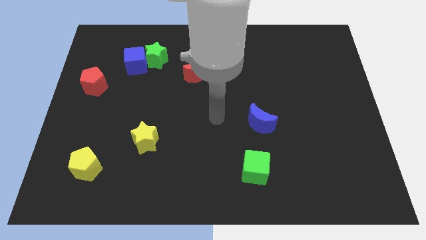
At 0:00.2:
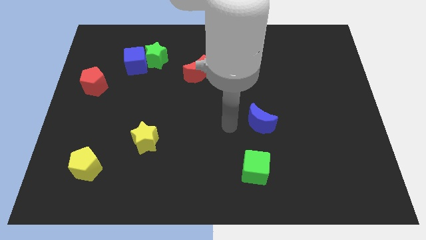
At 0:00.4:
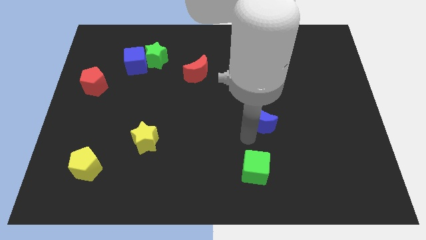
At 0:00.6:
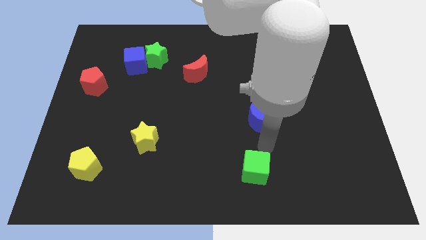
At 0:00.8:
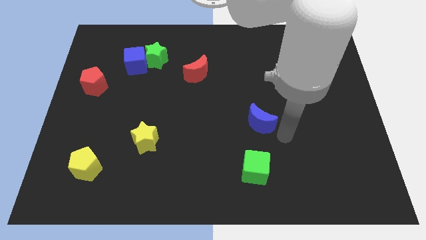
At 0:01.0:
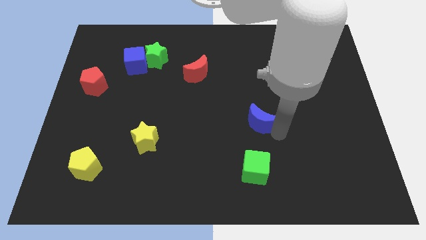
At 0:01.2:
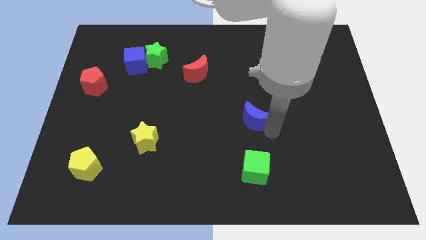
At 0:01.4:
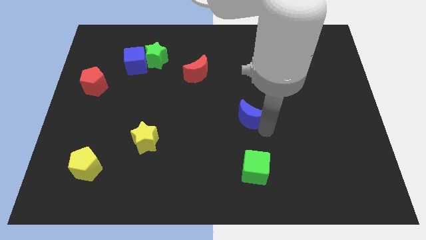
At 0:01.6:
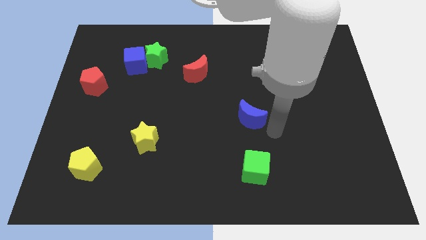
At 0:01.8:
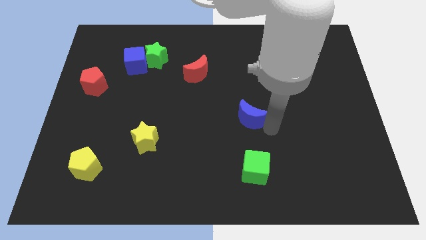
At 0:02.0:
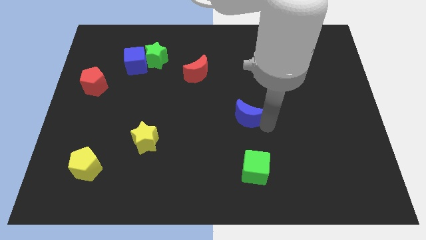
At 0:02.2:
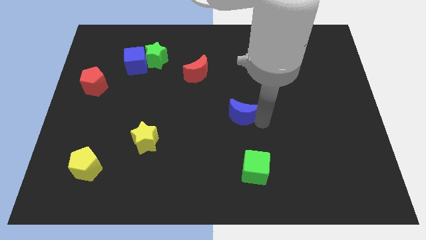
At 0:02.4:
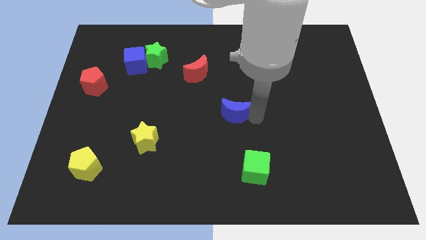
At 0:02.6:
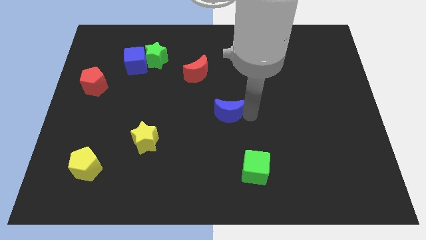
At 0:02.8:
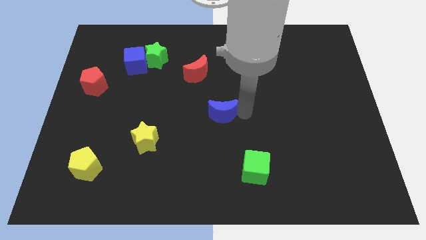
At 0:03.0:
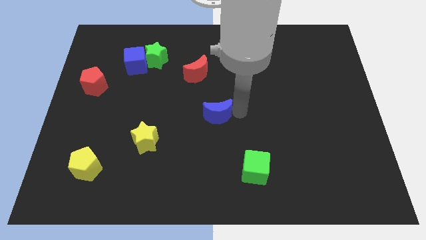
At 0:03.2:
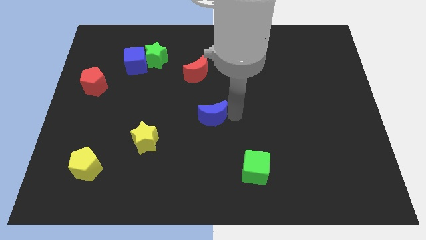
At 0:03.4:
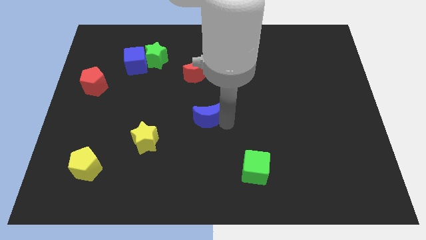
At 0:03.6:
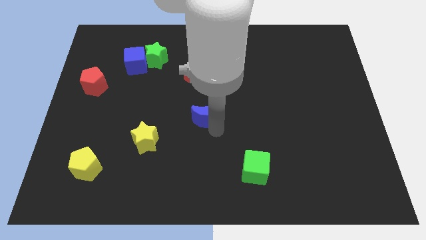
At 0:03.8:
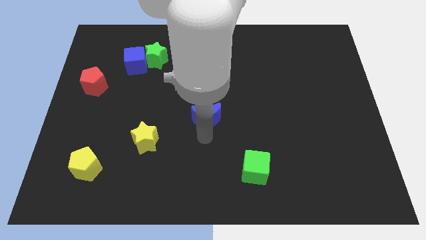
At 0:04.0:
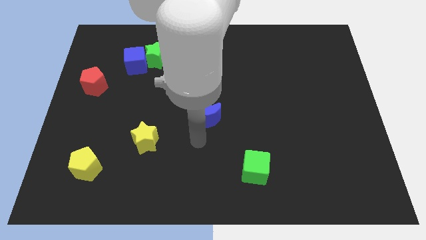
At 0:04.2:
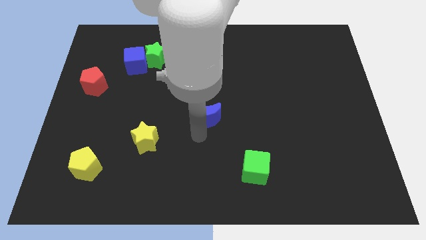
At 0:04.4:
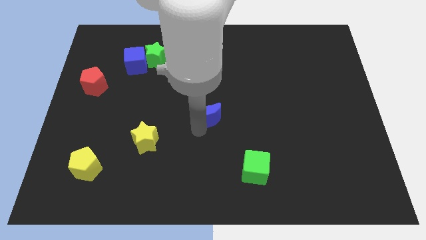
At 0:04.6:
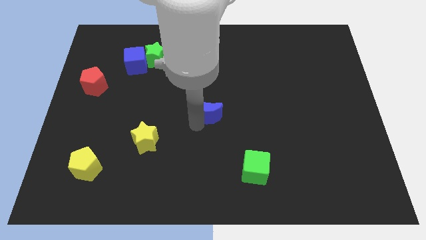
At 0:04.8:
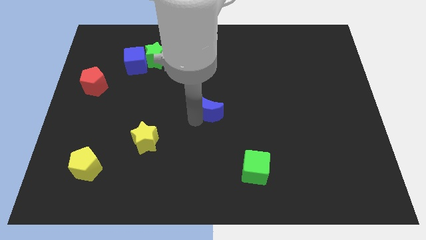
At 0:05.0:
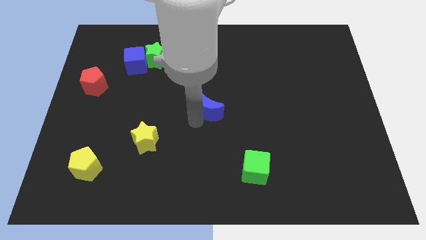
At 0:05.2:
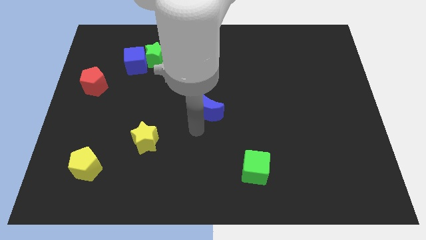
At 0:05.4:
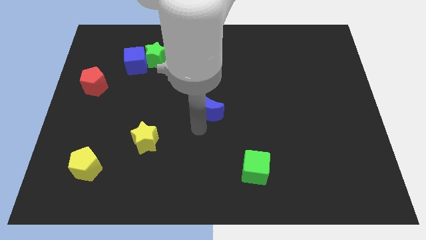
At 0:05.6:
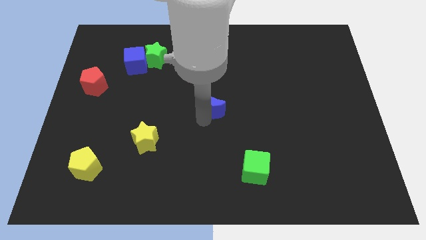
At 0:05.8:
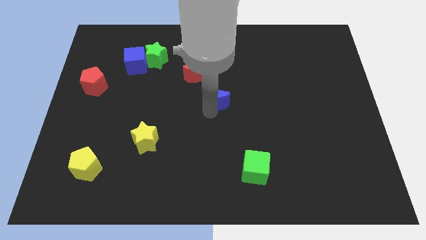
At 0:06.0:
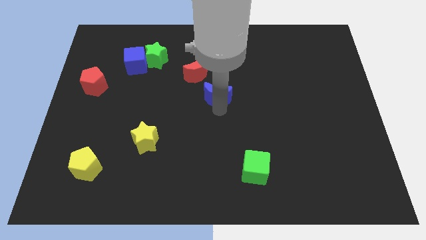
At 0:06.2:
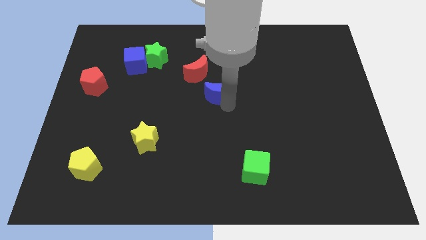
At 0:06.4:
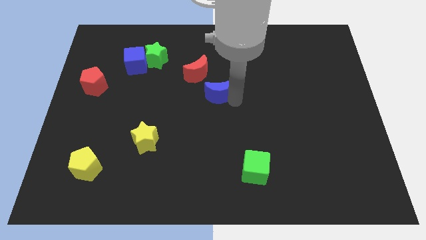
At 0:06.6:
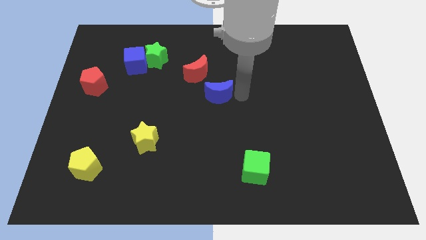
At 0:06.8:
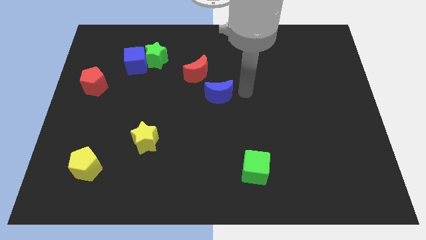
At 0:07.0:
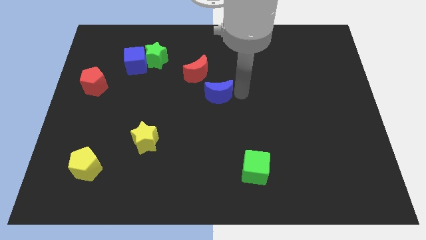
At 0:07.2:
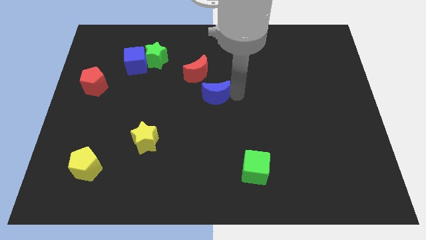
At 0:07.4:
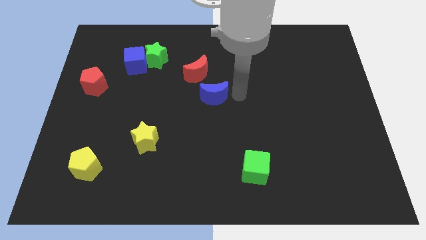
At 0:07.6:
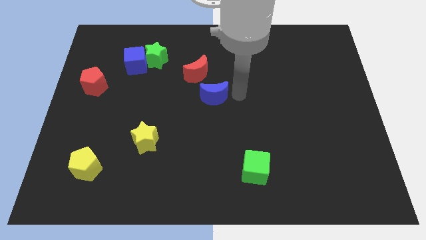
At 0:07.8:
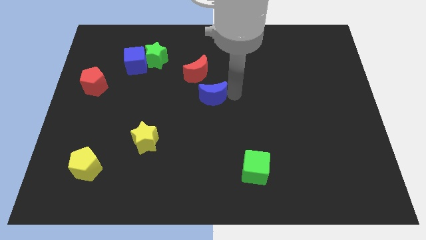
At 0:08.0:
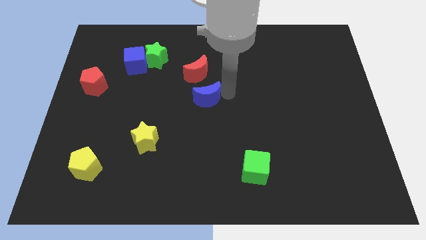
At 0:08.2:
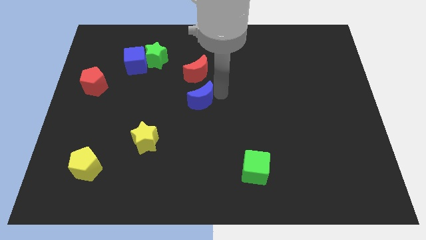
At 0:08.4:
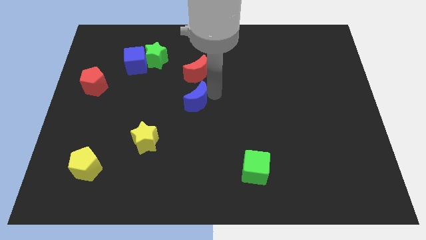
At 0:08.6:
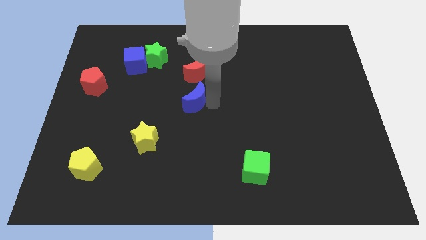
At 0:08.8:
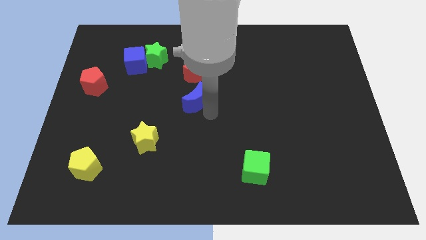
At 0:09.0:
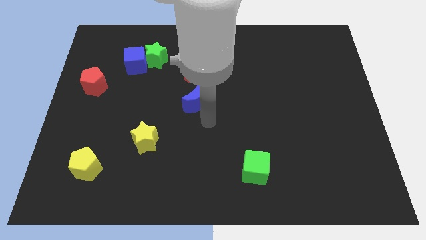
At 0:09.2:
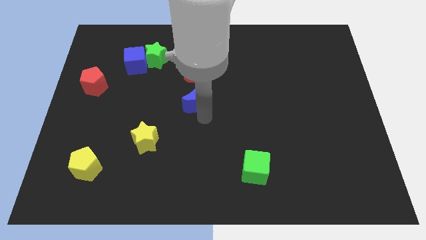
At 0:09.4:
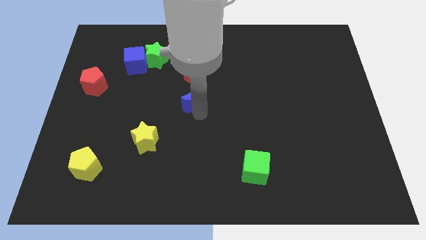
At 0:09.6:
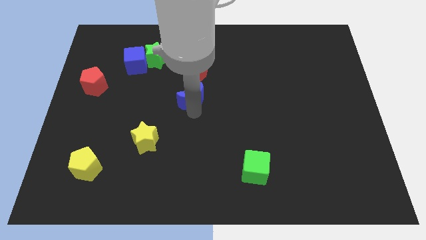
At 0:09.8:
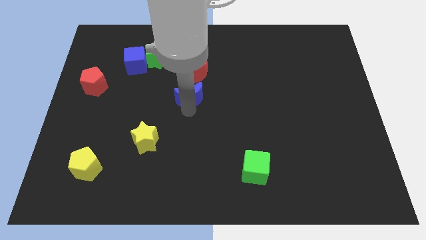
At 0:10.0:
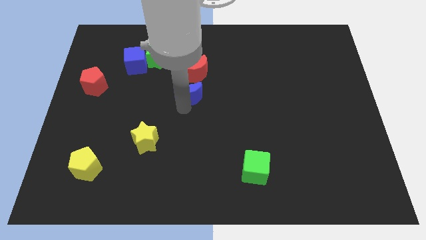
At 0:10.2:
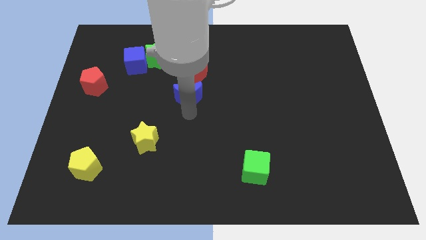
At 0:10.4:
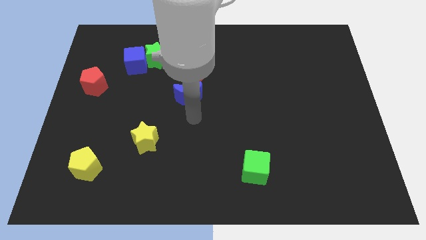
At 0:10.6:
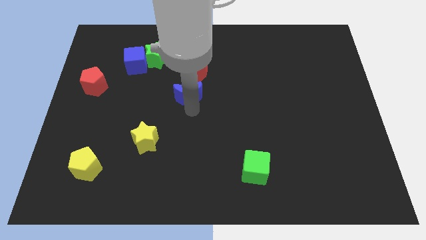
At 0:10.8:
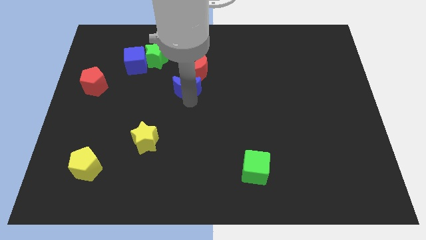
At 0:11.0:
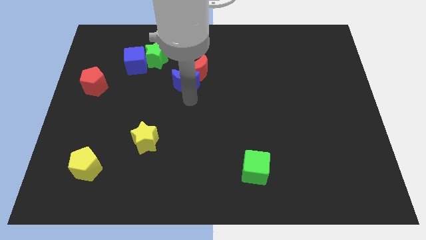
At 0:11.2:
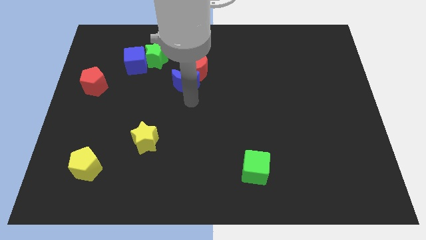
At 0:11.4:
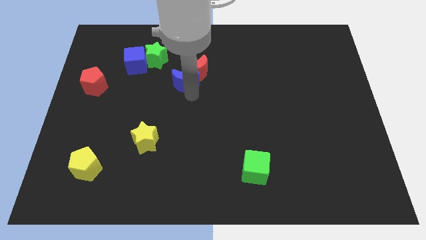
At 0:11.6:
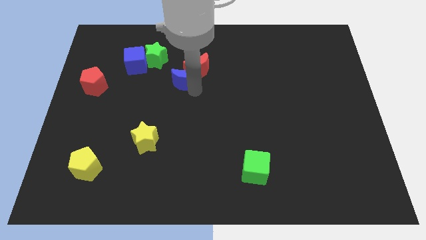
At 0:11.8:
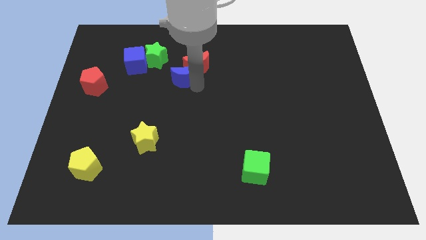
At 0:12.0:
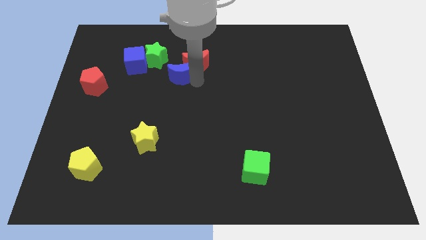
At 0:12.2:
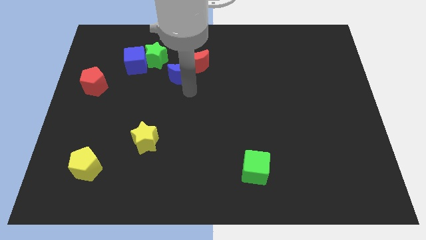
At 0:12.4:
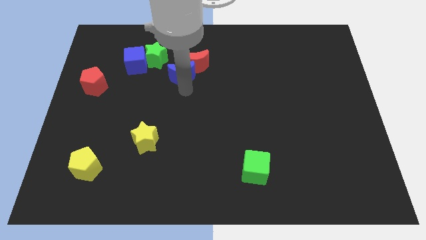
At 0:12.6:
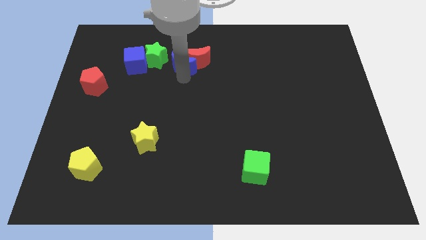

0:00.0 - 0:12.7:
move the blue moon diagonally up and to the left of the red moon

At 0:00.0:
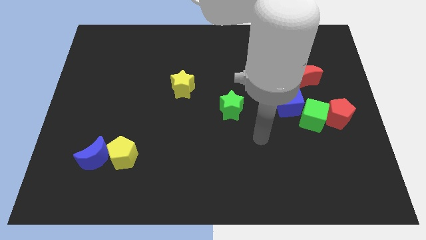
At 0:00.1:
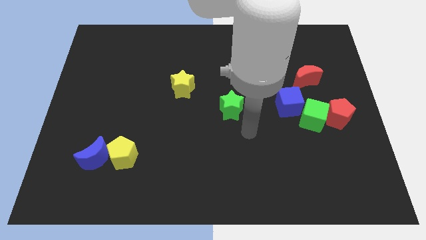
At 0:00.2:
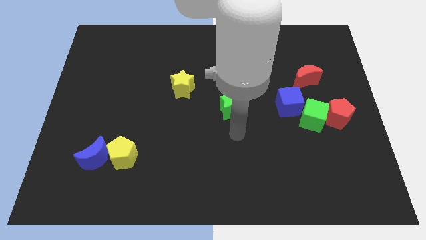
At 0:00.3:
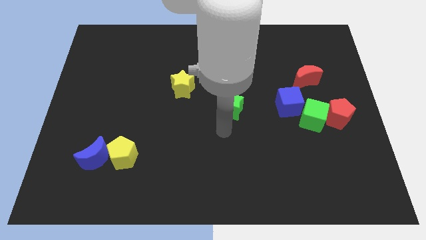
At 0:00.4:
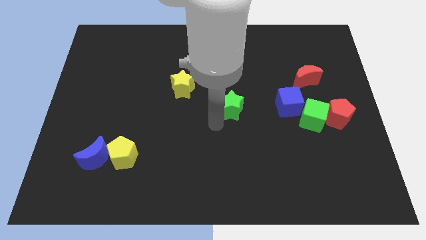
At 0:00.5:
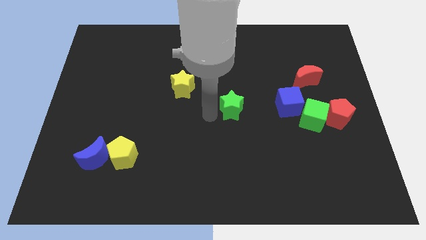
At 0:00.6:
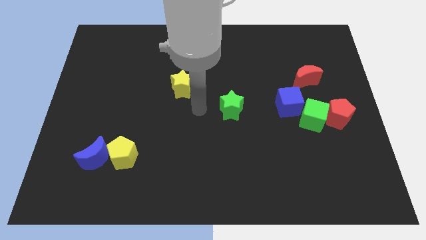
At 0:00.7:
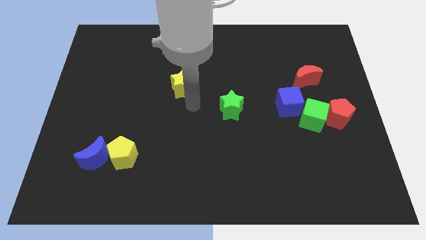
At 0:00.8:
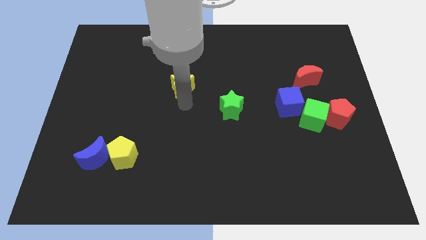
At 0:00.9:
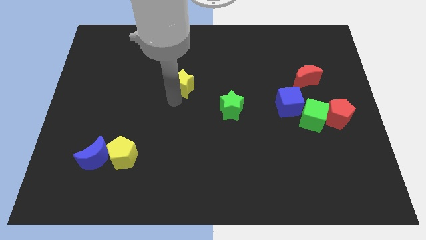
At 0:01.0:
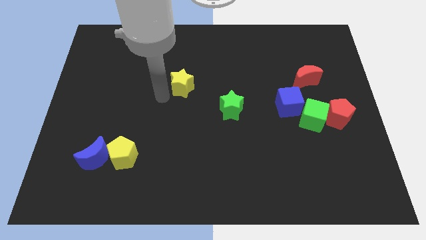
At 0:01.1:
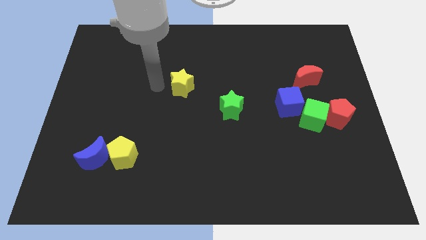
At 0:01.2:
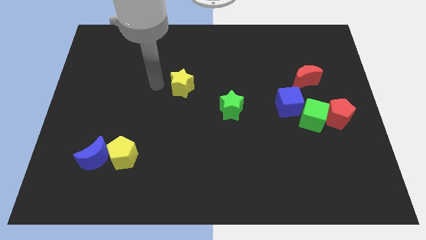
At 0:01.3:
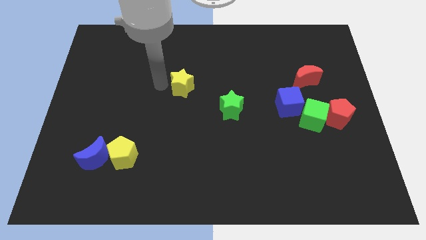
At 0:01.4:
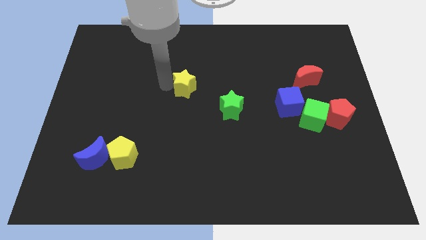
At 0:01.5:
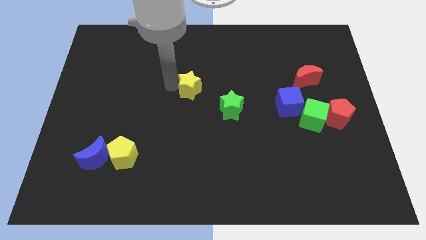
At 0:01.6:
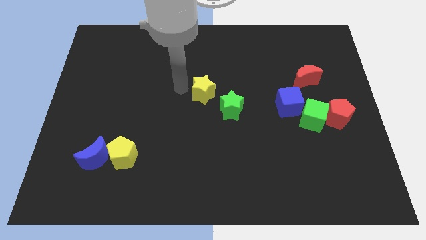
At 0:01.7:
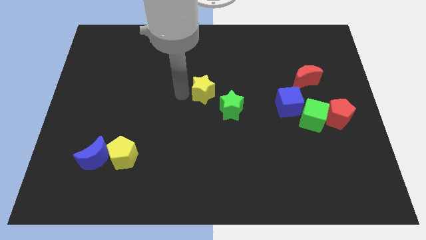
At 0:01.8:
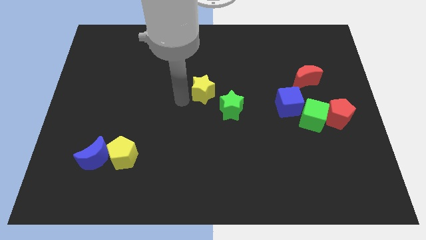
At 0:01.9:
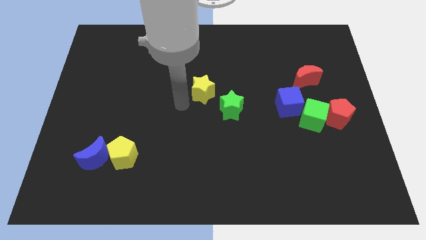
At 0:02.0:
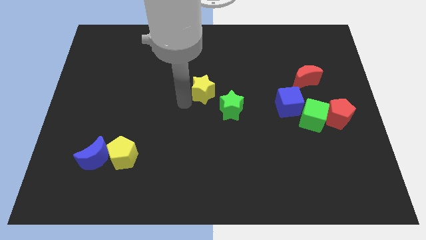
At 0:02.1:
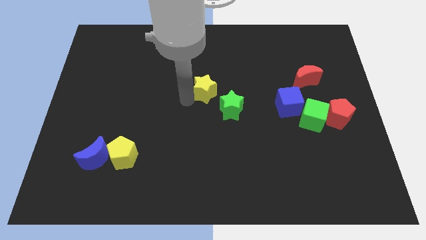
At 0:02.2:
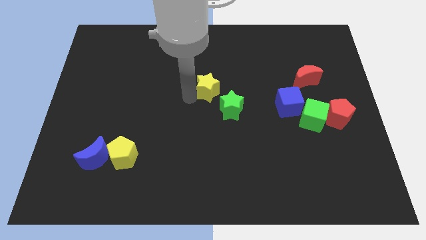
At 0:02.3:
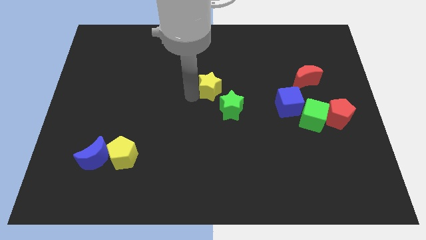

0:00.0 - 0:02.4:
slide the yellow star to the top of the green star
